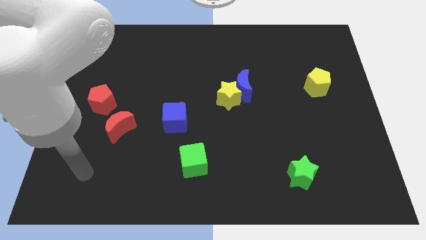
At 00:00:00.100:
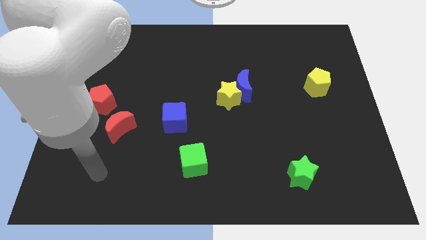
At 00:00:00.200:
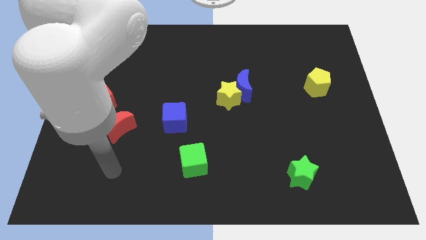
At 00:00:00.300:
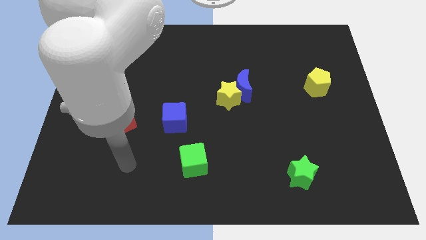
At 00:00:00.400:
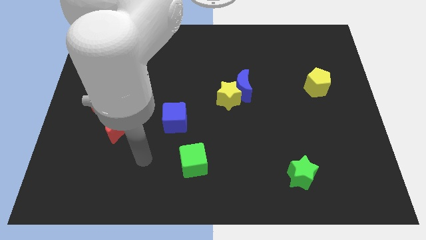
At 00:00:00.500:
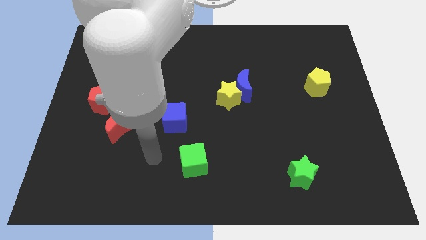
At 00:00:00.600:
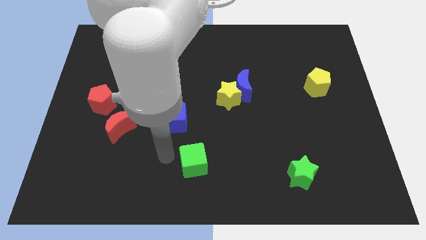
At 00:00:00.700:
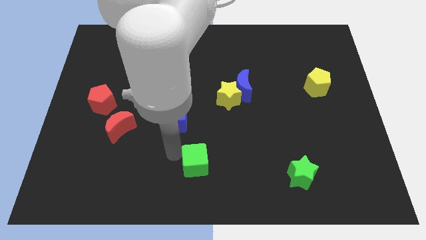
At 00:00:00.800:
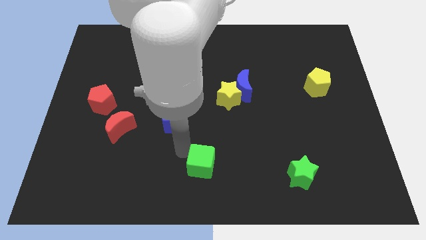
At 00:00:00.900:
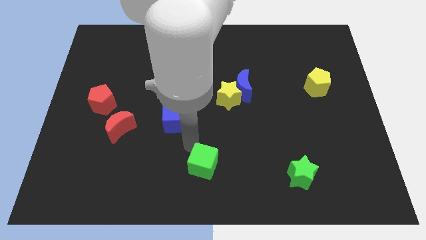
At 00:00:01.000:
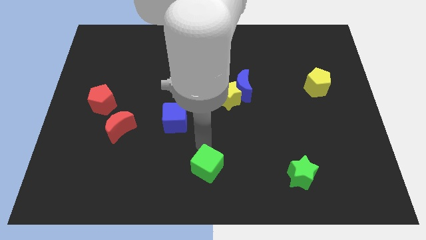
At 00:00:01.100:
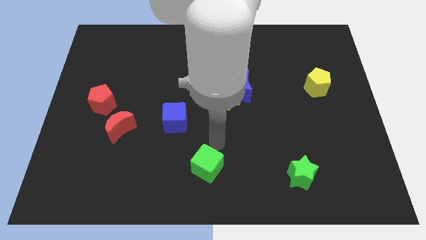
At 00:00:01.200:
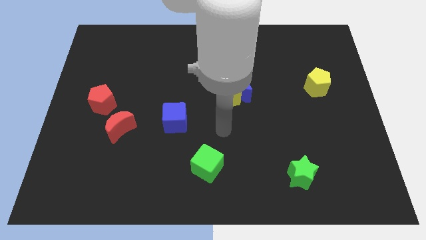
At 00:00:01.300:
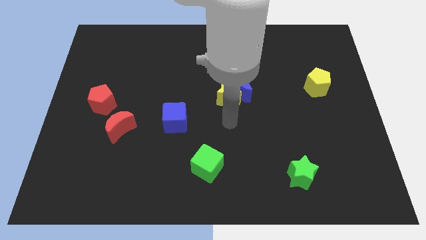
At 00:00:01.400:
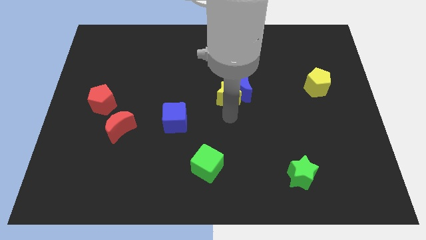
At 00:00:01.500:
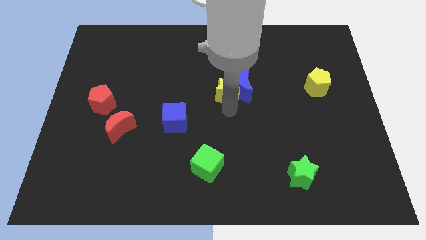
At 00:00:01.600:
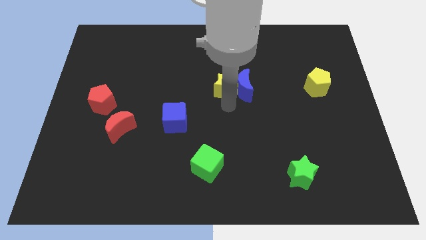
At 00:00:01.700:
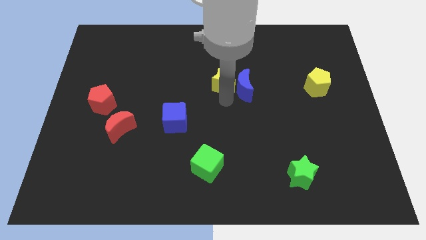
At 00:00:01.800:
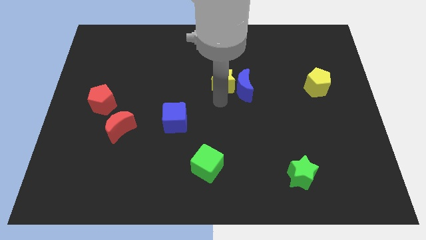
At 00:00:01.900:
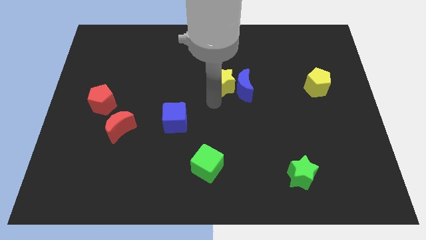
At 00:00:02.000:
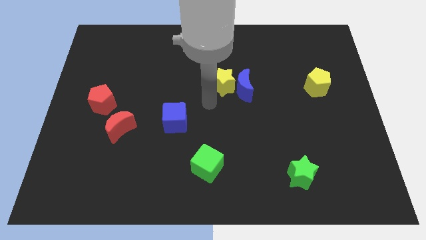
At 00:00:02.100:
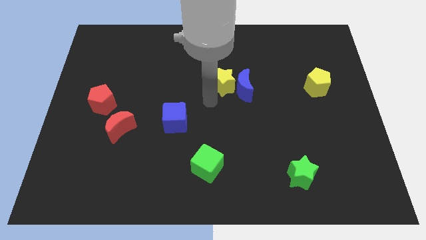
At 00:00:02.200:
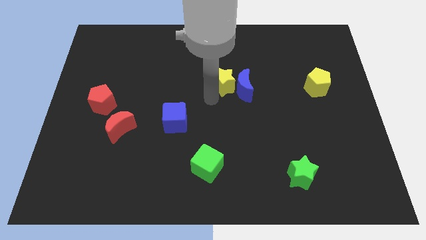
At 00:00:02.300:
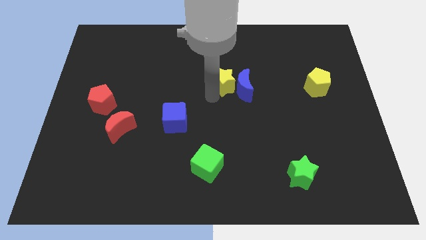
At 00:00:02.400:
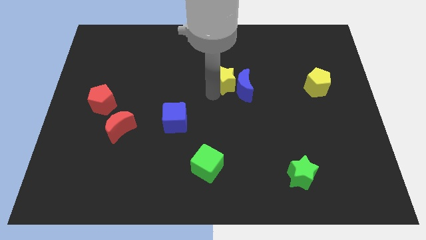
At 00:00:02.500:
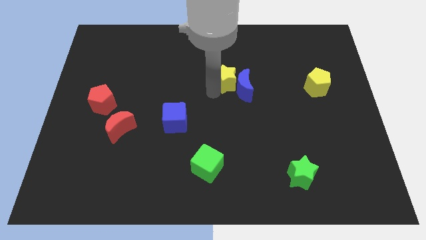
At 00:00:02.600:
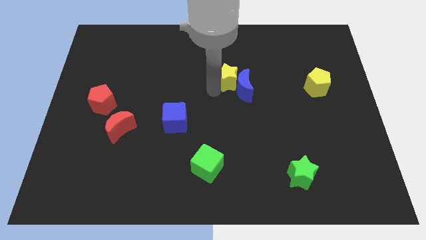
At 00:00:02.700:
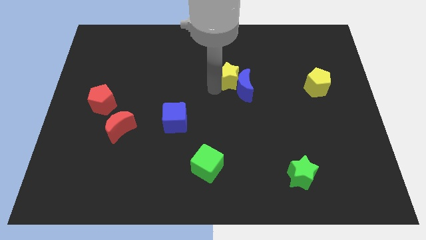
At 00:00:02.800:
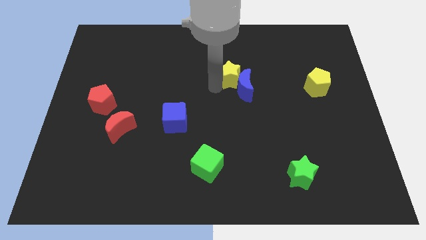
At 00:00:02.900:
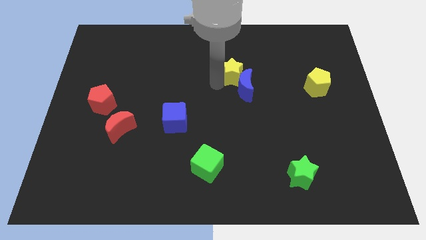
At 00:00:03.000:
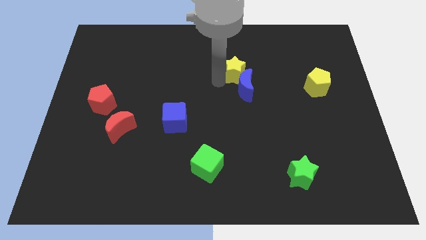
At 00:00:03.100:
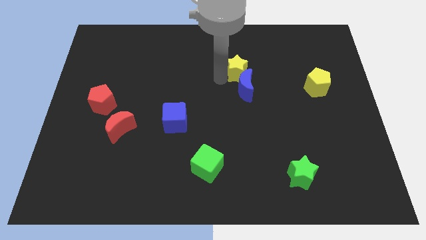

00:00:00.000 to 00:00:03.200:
push the yellow star up and then to the right a little

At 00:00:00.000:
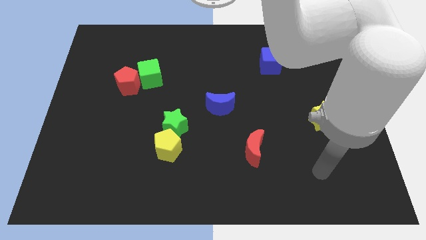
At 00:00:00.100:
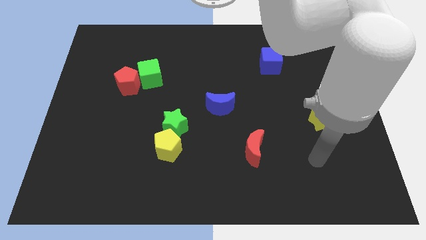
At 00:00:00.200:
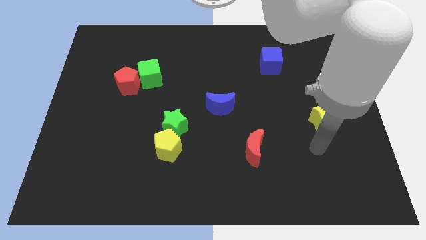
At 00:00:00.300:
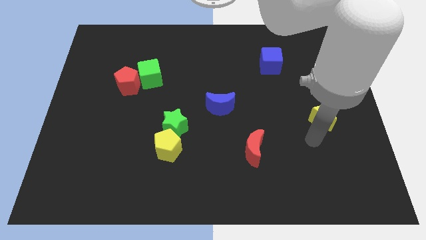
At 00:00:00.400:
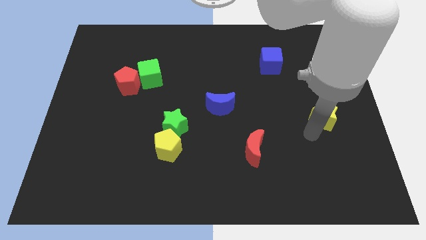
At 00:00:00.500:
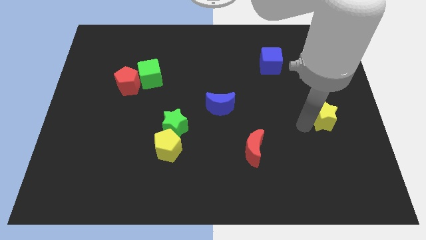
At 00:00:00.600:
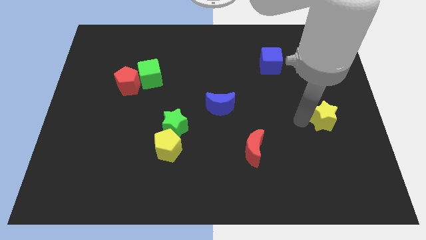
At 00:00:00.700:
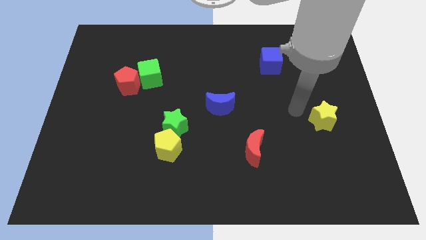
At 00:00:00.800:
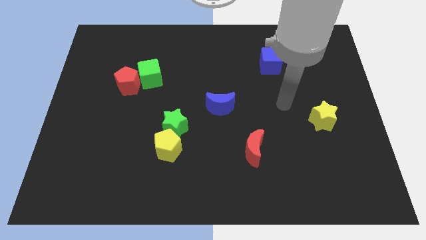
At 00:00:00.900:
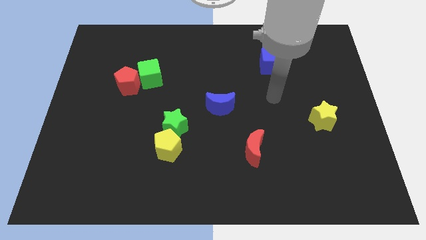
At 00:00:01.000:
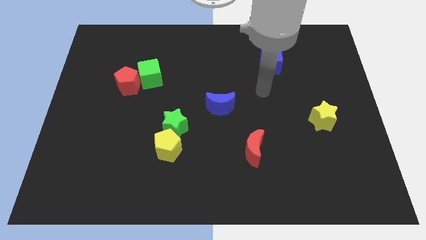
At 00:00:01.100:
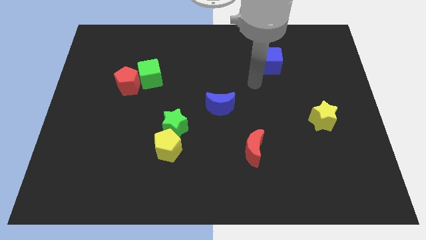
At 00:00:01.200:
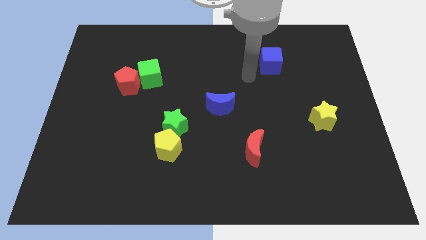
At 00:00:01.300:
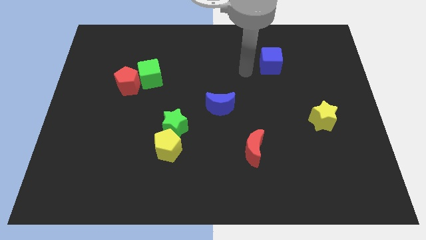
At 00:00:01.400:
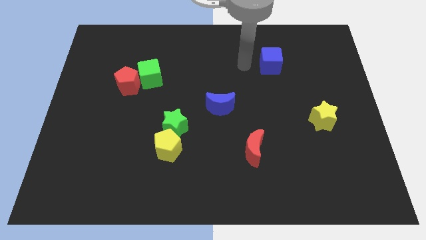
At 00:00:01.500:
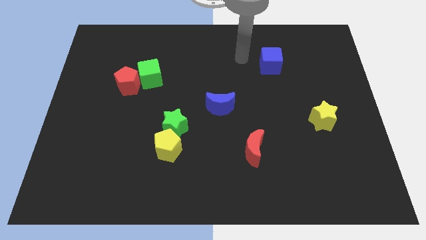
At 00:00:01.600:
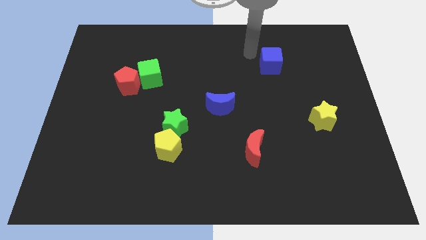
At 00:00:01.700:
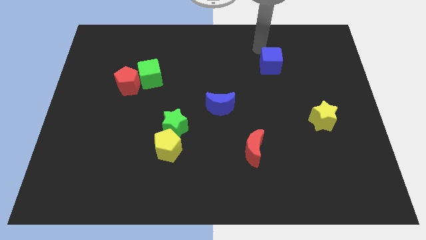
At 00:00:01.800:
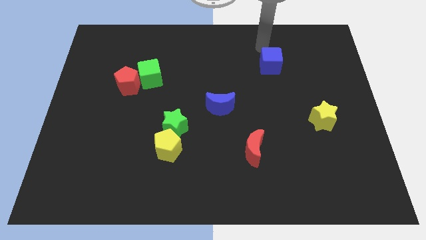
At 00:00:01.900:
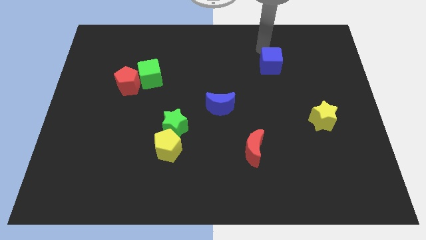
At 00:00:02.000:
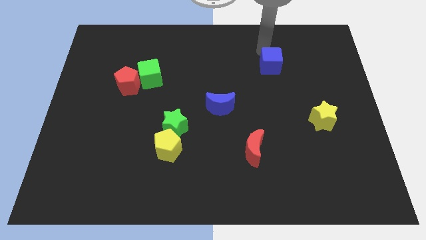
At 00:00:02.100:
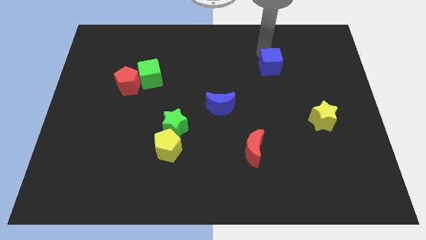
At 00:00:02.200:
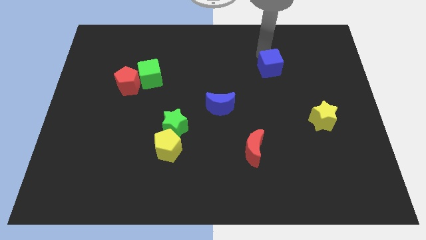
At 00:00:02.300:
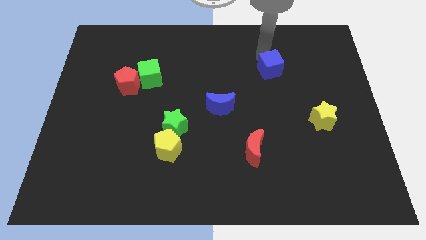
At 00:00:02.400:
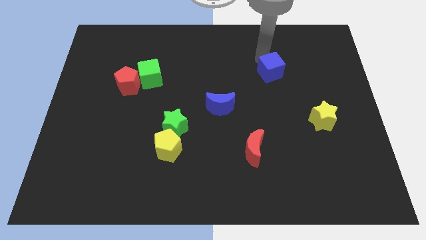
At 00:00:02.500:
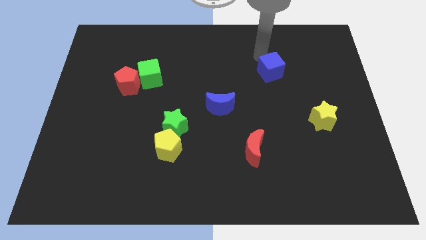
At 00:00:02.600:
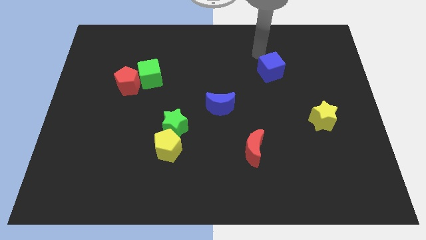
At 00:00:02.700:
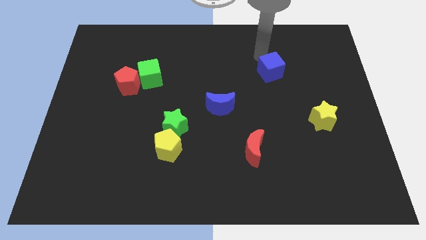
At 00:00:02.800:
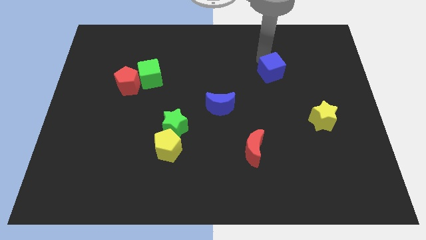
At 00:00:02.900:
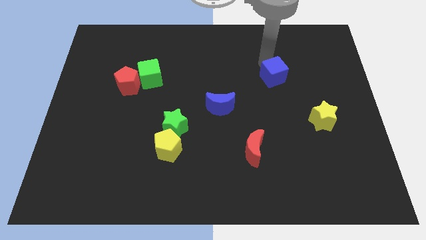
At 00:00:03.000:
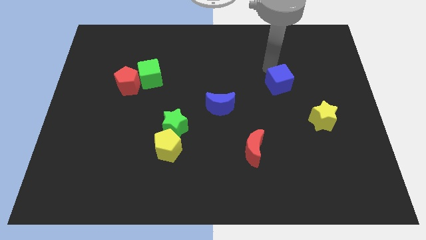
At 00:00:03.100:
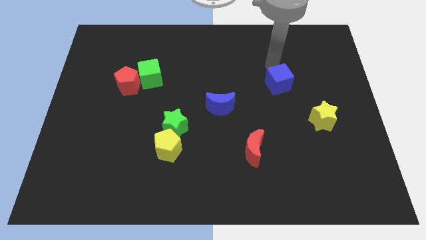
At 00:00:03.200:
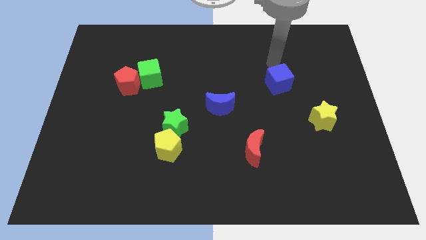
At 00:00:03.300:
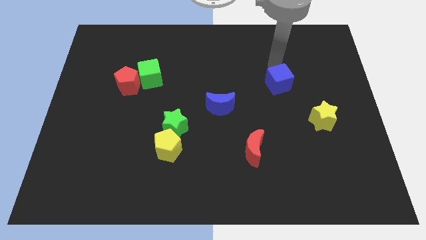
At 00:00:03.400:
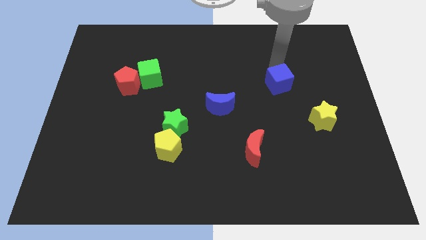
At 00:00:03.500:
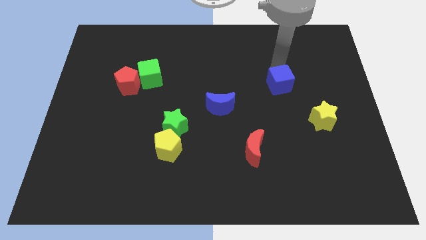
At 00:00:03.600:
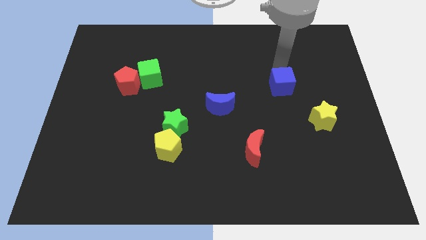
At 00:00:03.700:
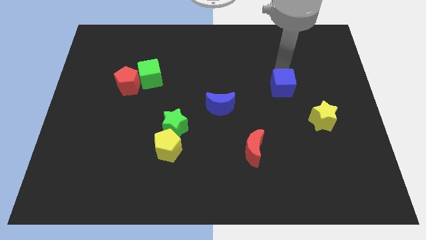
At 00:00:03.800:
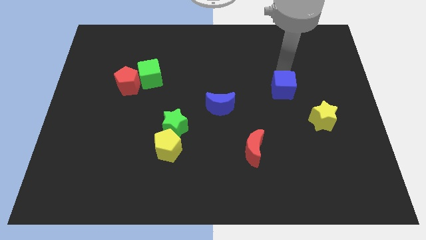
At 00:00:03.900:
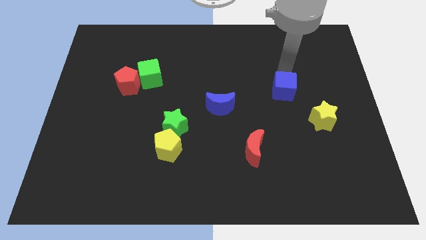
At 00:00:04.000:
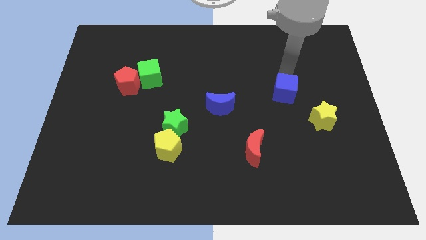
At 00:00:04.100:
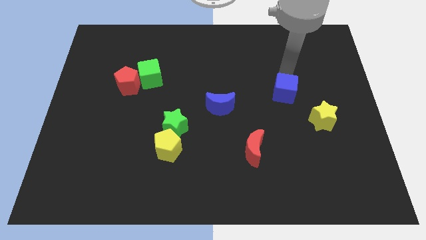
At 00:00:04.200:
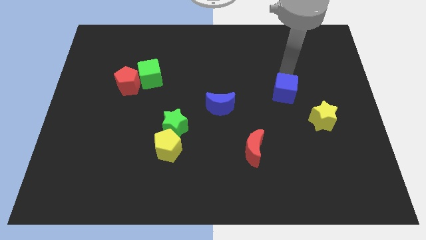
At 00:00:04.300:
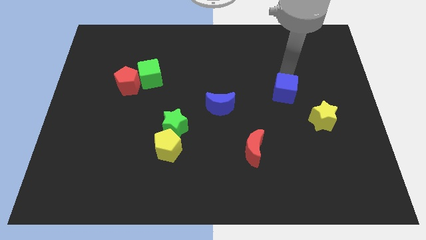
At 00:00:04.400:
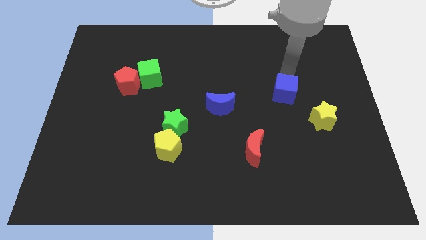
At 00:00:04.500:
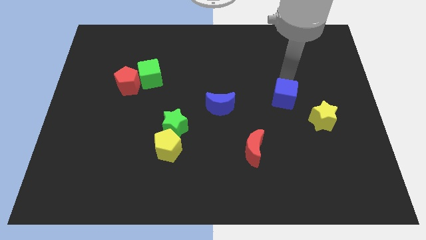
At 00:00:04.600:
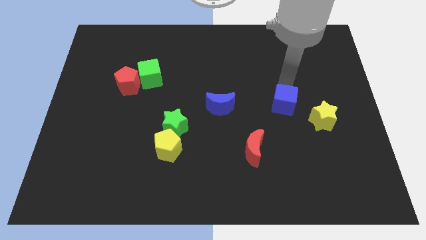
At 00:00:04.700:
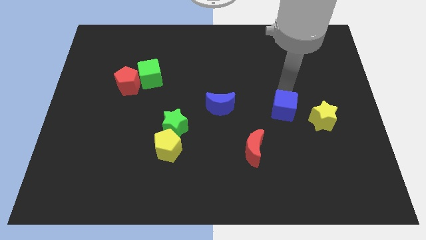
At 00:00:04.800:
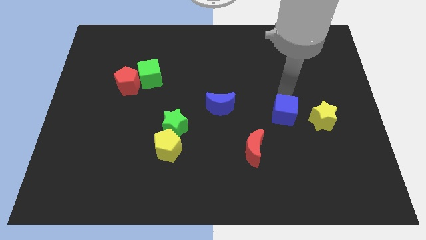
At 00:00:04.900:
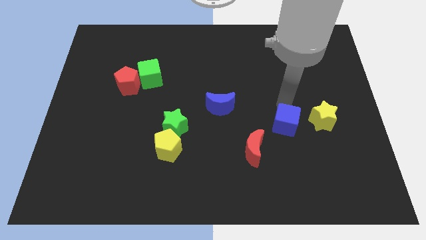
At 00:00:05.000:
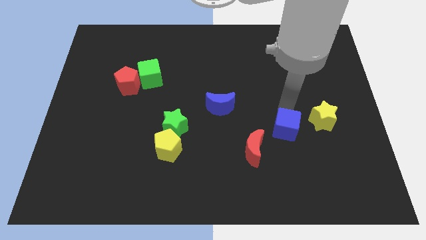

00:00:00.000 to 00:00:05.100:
push the blue cube downwards
